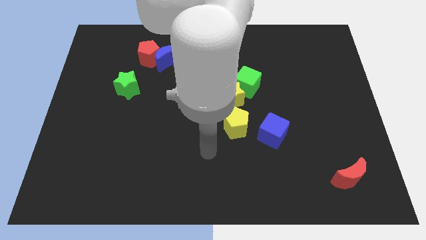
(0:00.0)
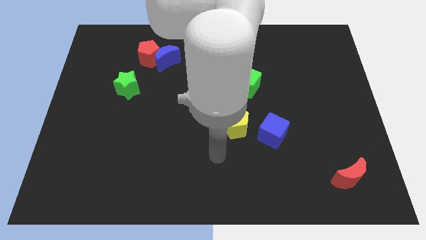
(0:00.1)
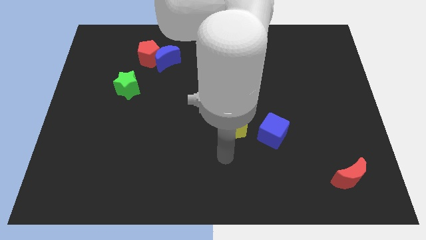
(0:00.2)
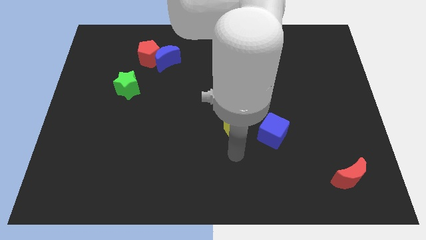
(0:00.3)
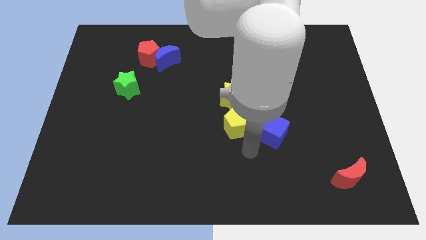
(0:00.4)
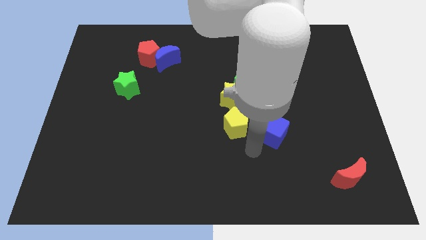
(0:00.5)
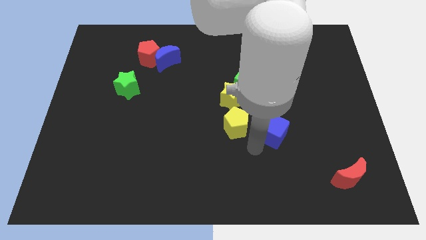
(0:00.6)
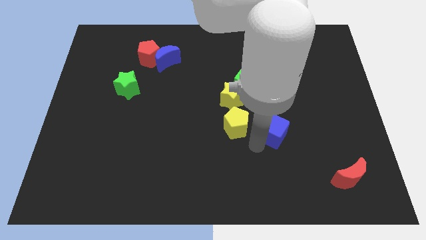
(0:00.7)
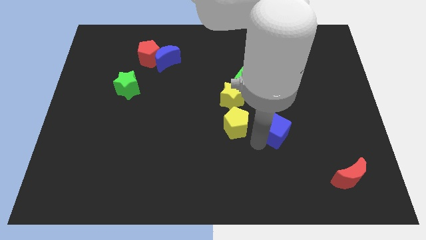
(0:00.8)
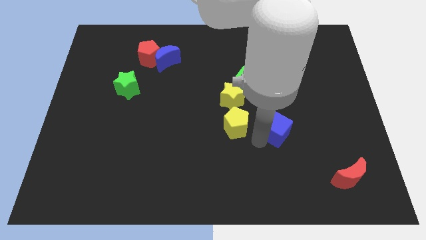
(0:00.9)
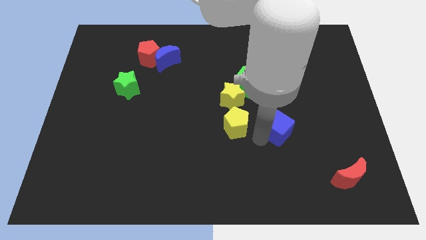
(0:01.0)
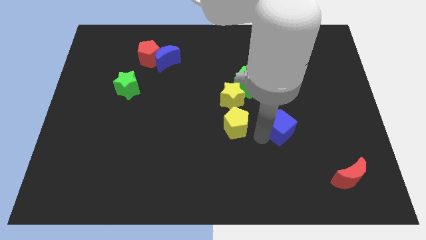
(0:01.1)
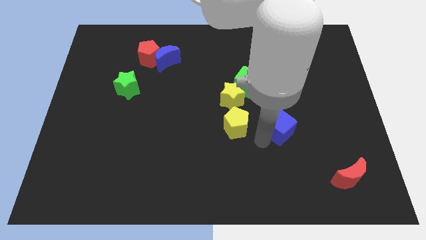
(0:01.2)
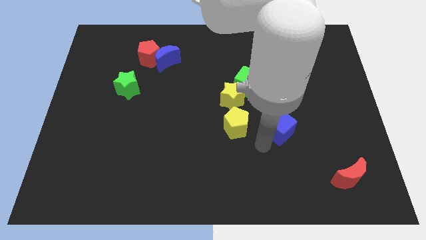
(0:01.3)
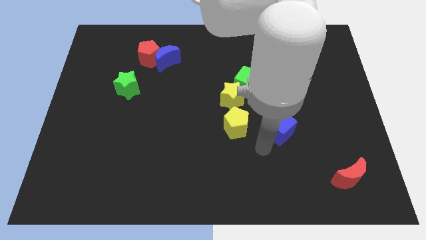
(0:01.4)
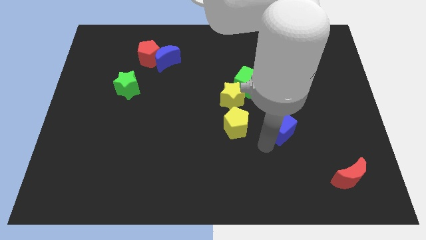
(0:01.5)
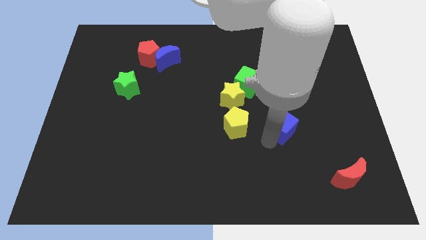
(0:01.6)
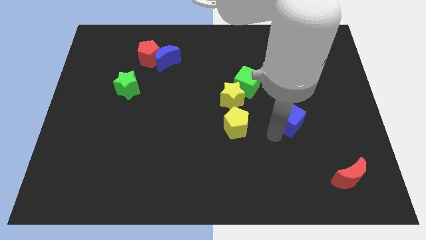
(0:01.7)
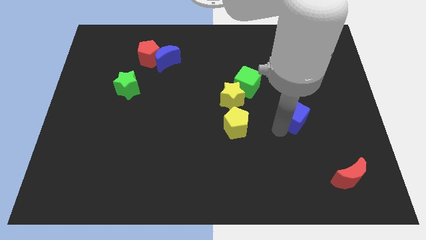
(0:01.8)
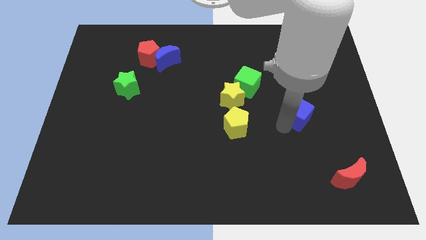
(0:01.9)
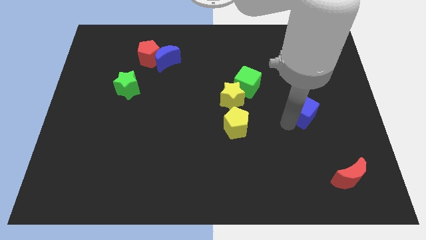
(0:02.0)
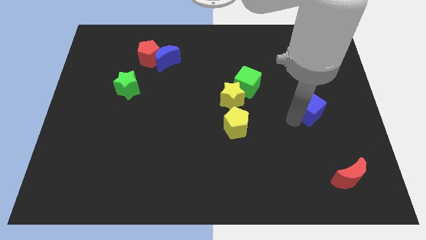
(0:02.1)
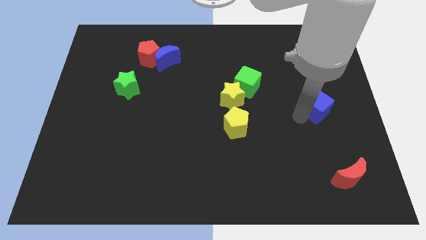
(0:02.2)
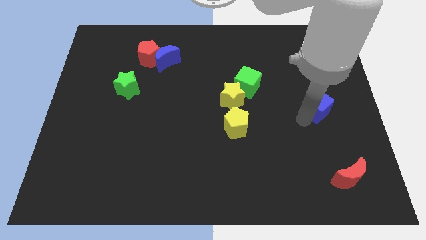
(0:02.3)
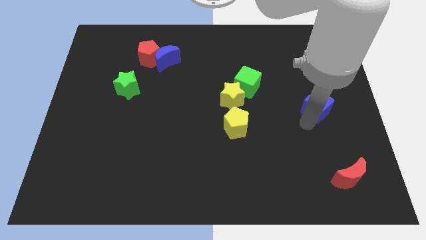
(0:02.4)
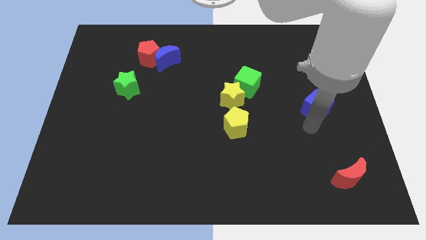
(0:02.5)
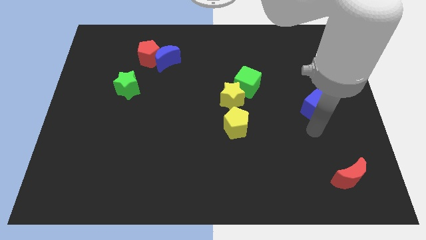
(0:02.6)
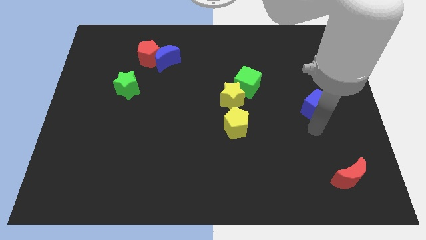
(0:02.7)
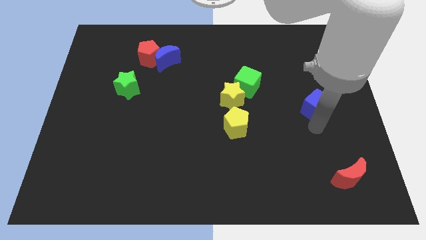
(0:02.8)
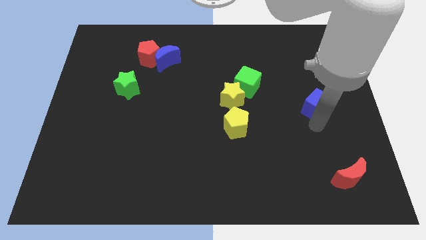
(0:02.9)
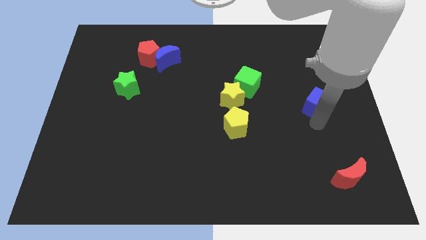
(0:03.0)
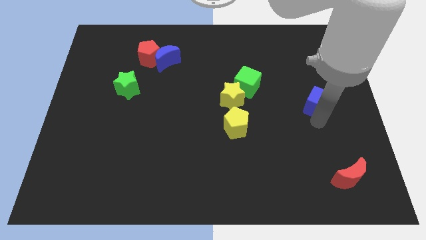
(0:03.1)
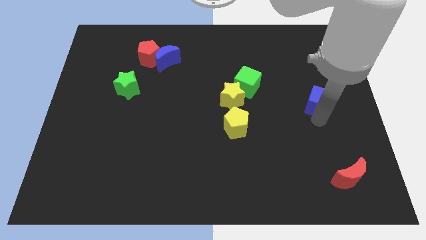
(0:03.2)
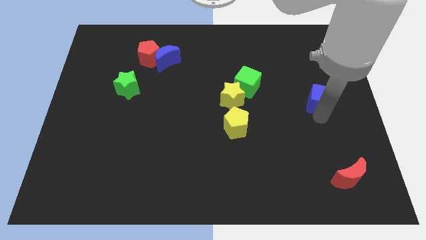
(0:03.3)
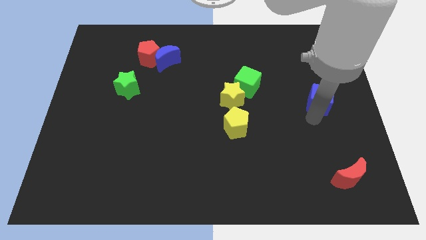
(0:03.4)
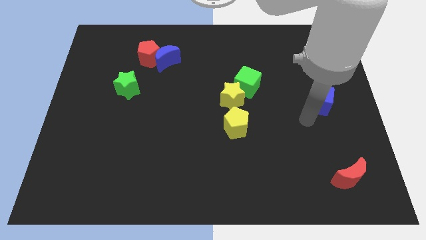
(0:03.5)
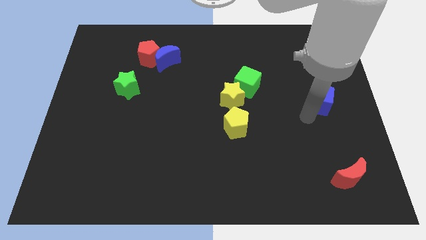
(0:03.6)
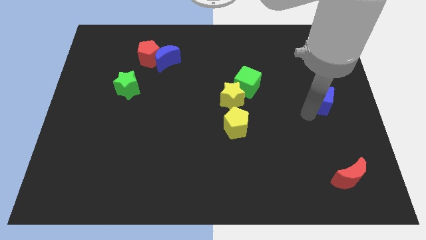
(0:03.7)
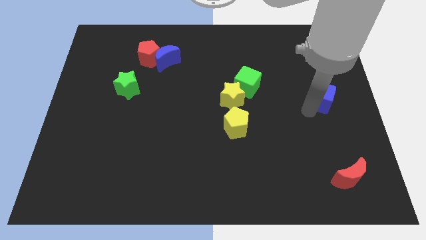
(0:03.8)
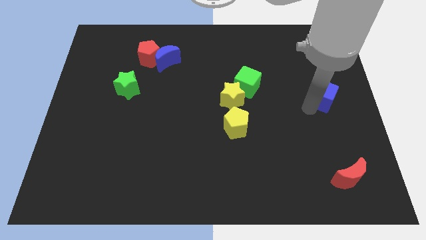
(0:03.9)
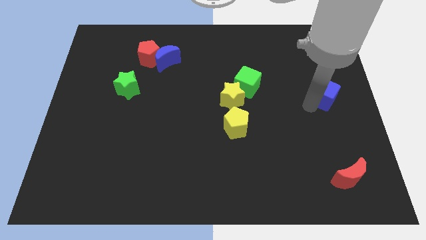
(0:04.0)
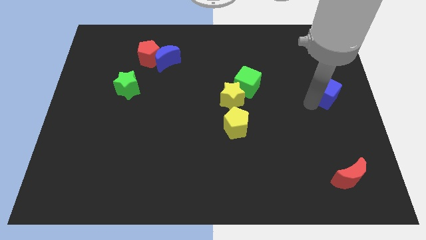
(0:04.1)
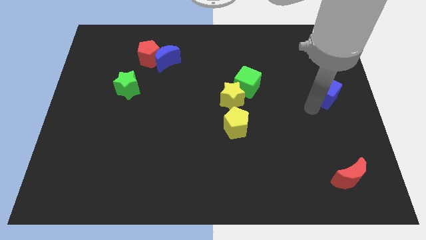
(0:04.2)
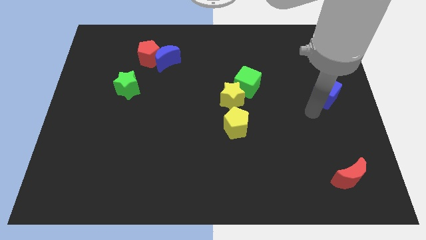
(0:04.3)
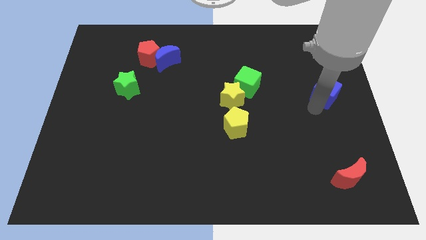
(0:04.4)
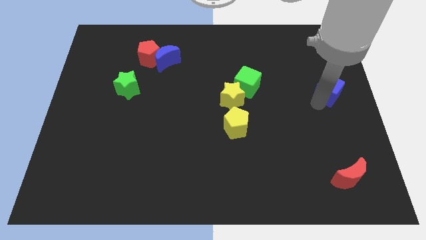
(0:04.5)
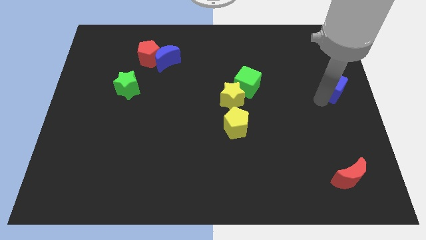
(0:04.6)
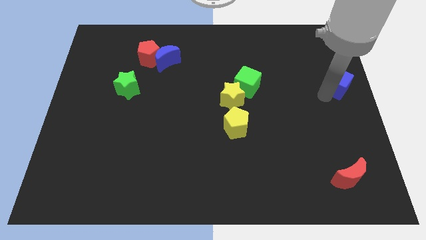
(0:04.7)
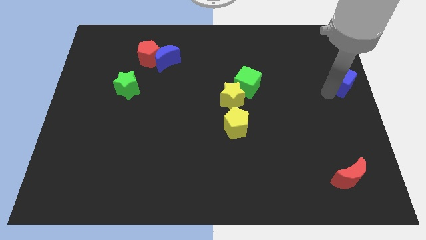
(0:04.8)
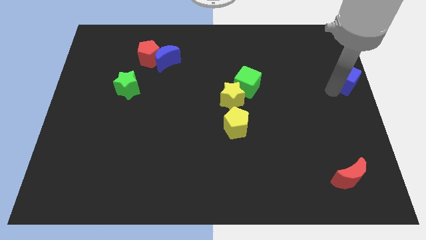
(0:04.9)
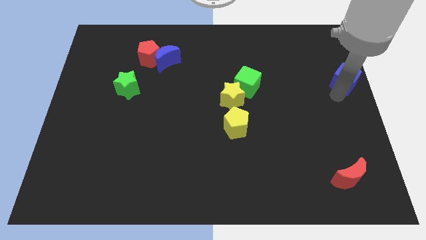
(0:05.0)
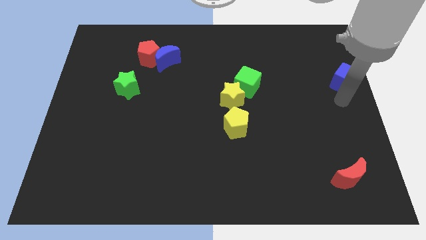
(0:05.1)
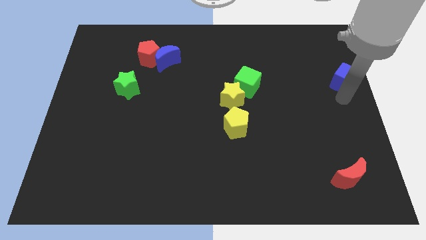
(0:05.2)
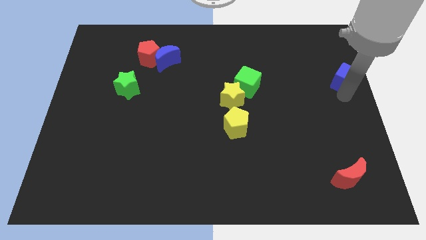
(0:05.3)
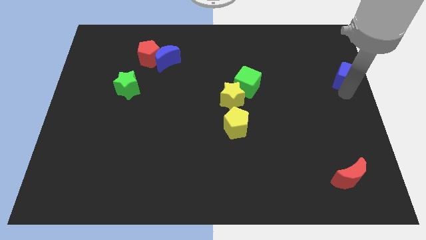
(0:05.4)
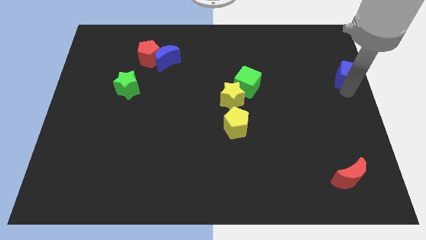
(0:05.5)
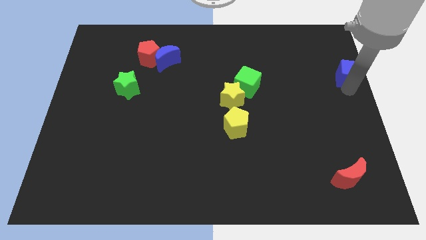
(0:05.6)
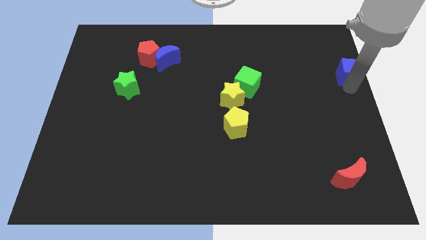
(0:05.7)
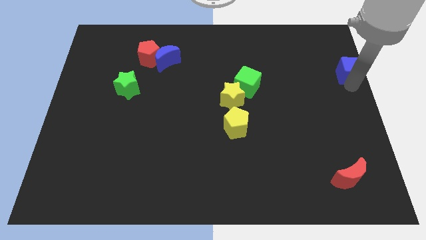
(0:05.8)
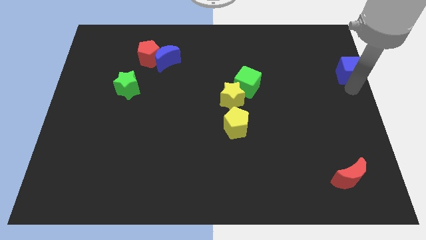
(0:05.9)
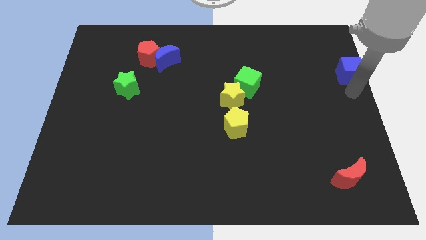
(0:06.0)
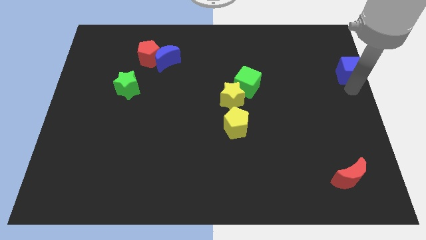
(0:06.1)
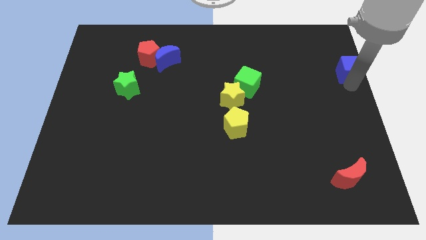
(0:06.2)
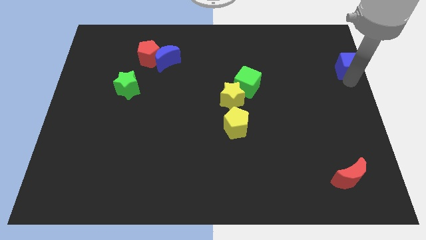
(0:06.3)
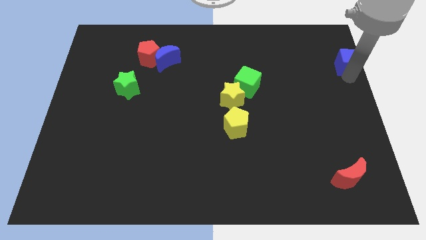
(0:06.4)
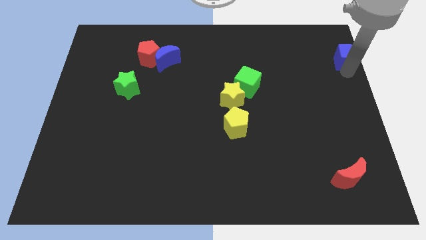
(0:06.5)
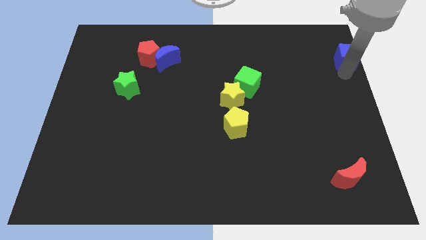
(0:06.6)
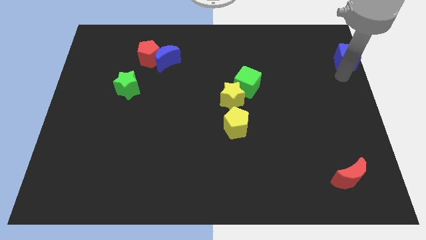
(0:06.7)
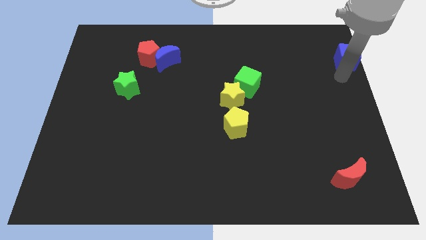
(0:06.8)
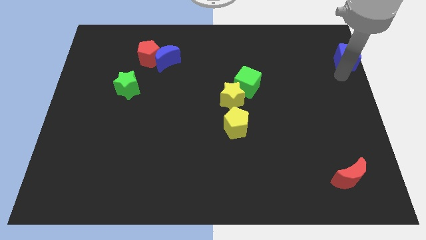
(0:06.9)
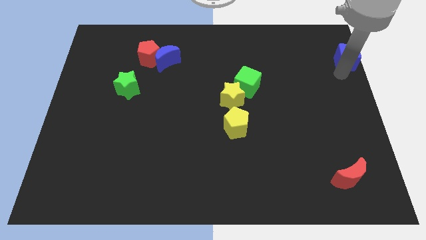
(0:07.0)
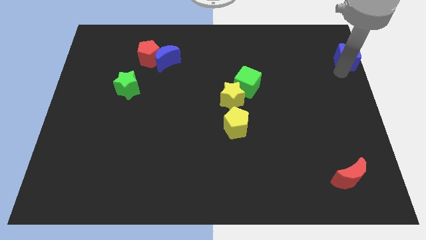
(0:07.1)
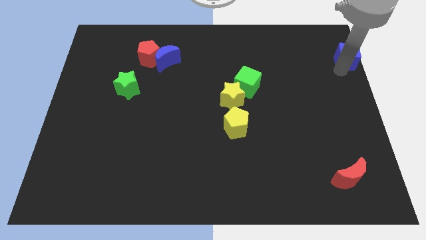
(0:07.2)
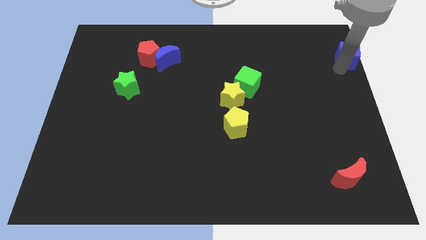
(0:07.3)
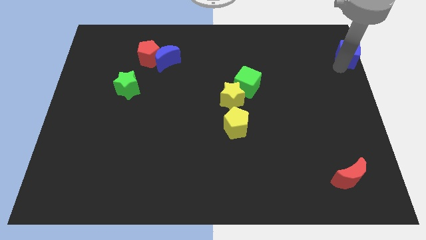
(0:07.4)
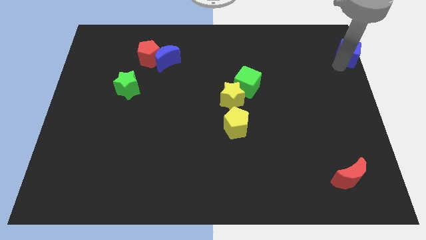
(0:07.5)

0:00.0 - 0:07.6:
put the blue cube to the top right of the board
